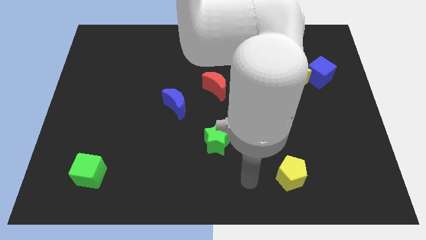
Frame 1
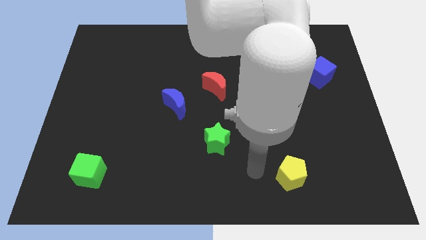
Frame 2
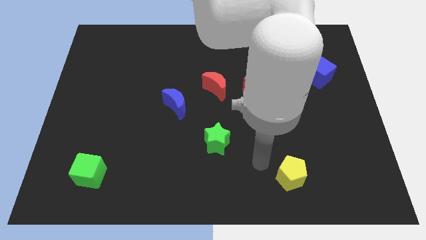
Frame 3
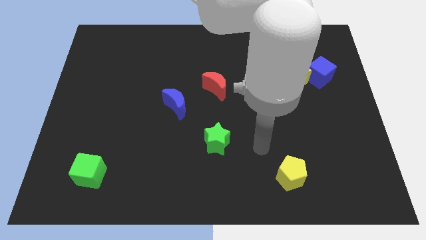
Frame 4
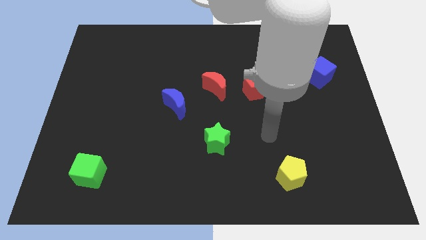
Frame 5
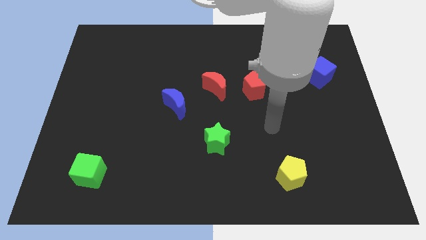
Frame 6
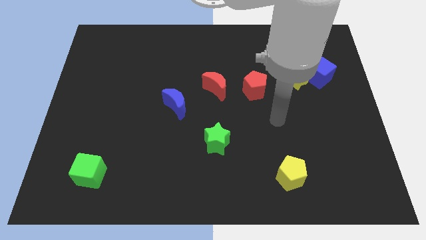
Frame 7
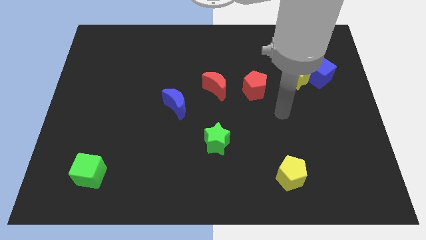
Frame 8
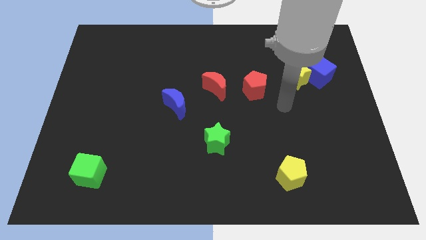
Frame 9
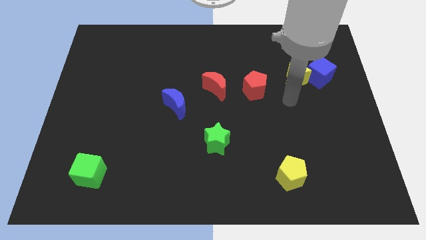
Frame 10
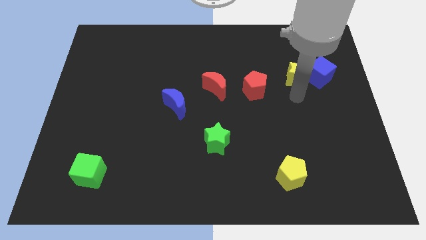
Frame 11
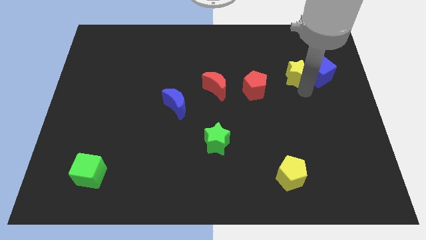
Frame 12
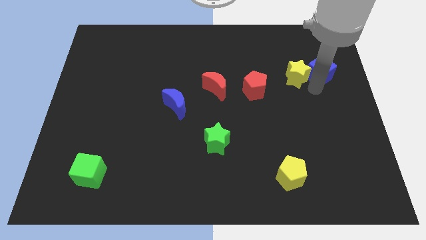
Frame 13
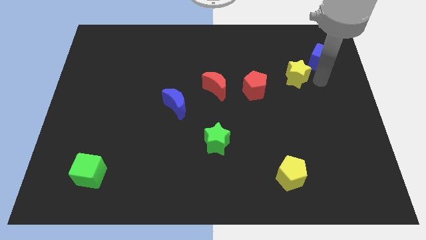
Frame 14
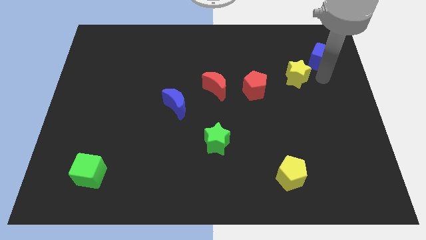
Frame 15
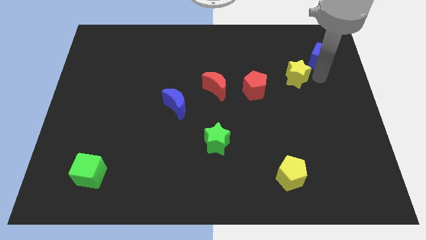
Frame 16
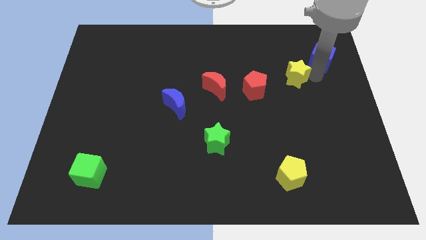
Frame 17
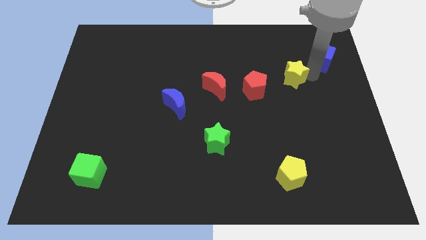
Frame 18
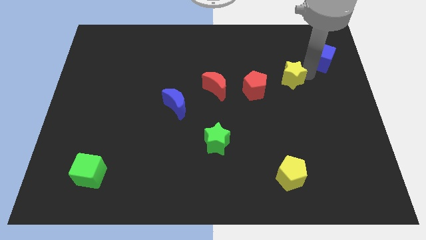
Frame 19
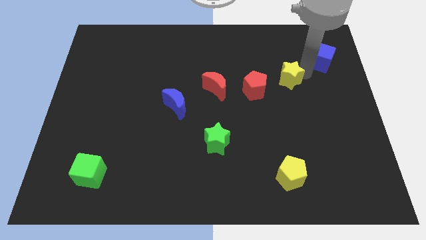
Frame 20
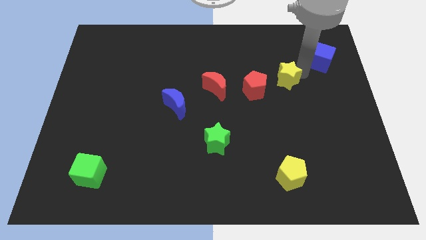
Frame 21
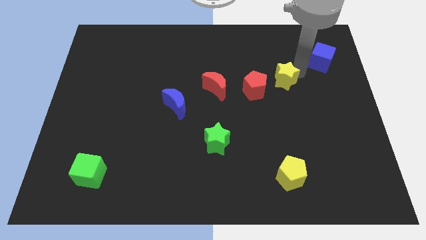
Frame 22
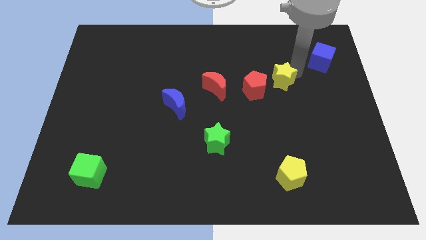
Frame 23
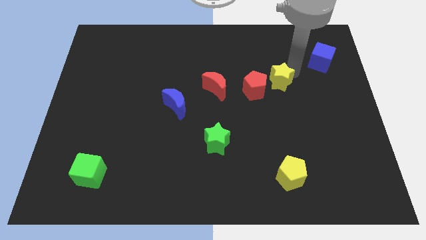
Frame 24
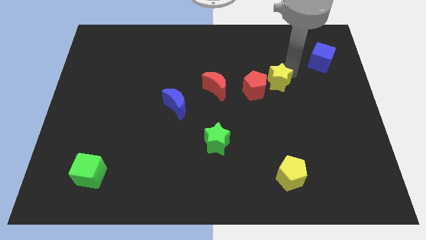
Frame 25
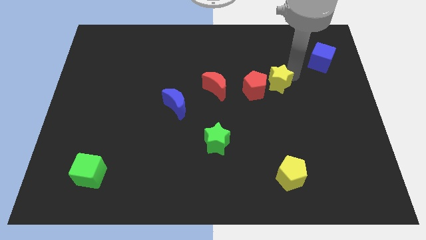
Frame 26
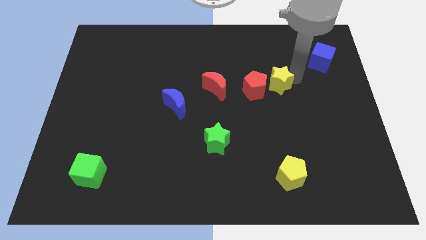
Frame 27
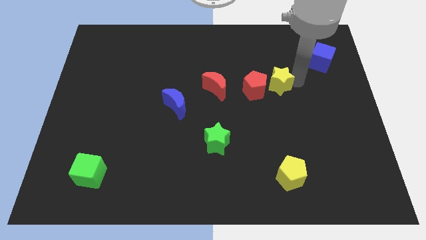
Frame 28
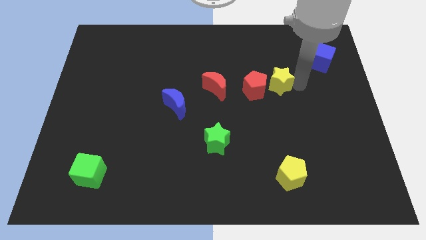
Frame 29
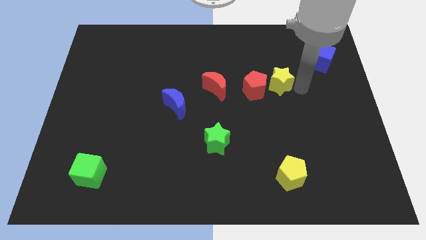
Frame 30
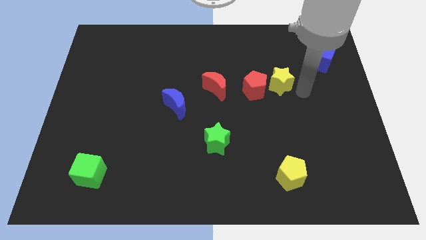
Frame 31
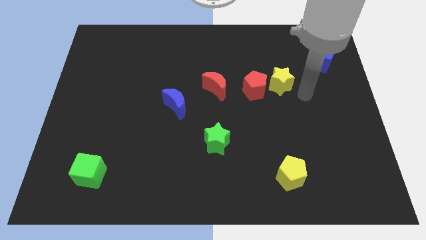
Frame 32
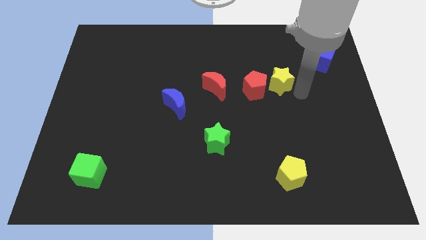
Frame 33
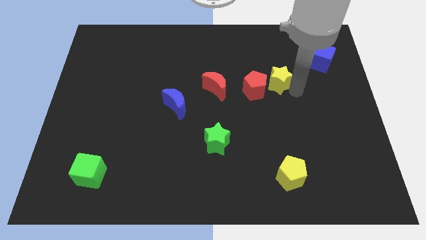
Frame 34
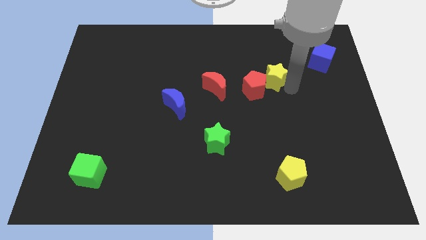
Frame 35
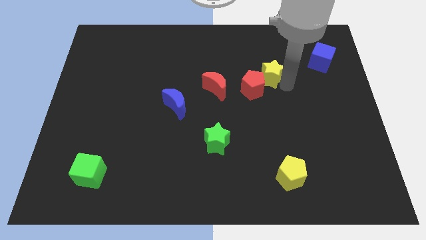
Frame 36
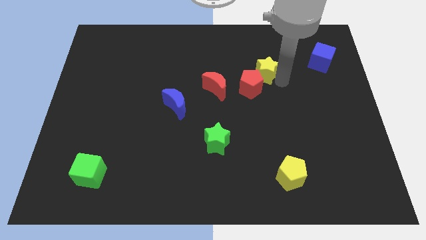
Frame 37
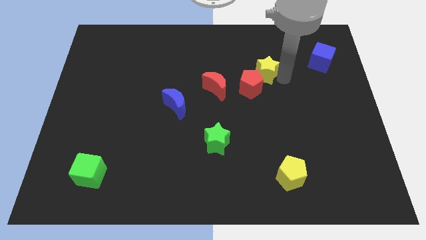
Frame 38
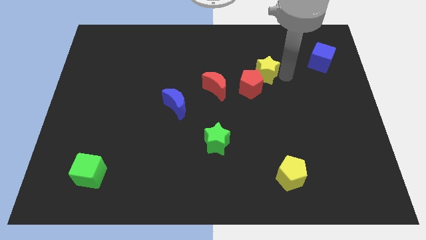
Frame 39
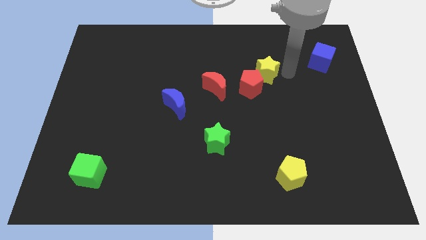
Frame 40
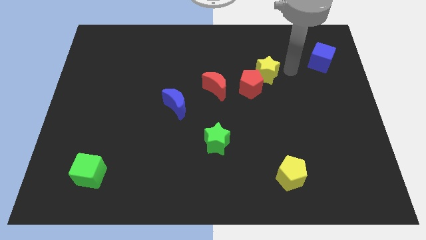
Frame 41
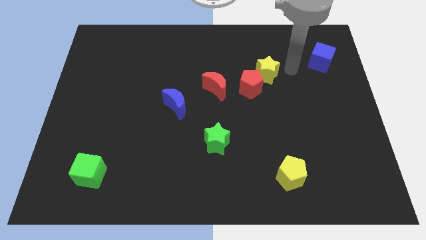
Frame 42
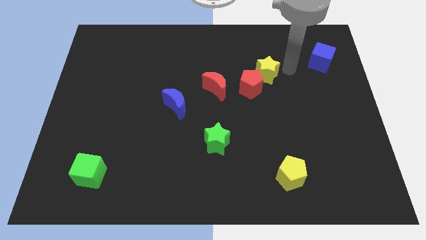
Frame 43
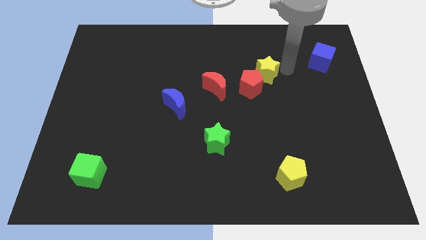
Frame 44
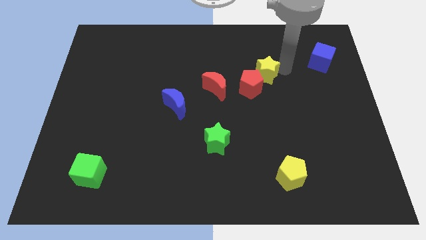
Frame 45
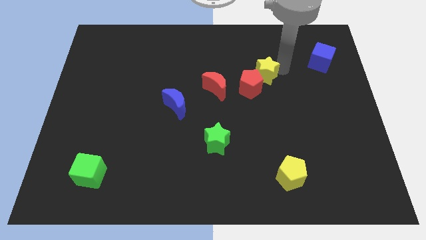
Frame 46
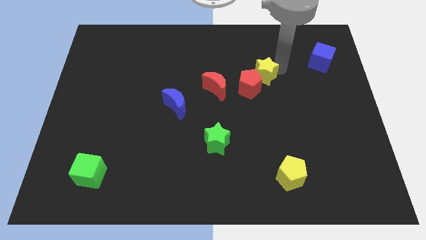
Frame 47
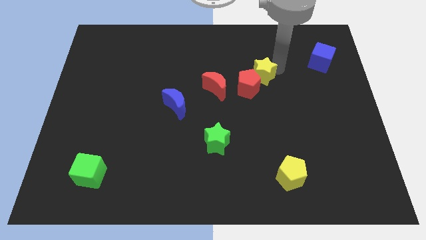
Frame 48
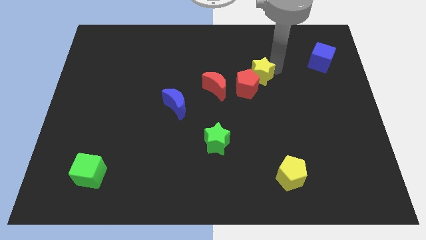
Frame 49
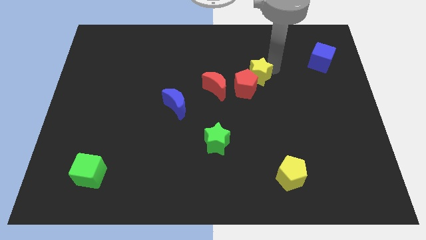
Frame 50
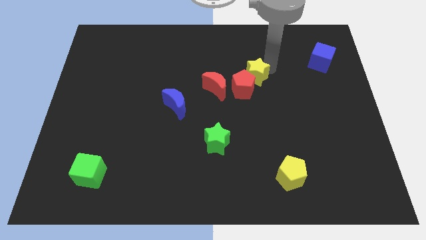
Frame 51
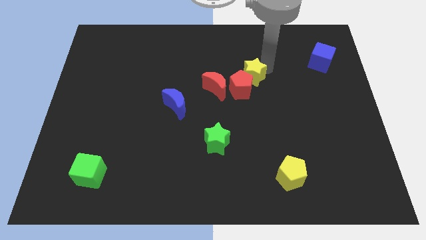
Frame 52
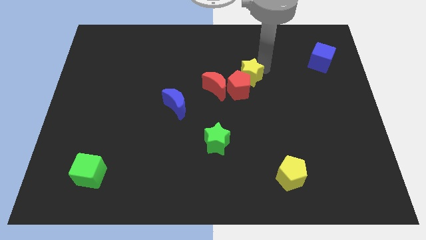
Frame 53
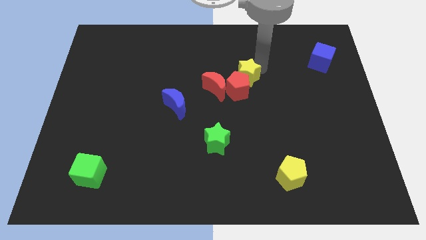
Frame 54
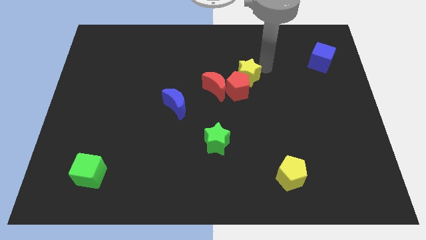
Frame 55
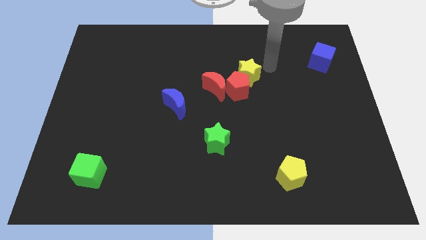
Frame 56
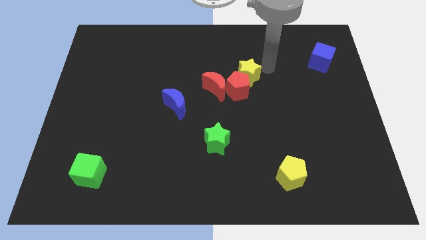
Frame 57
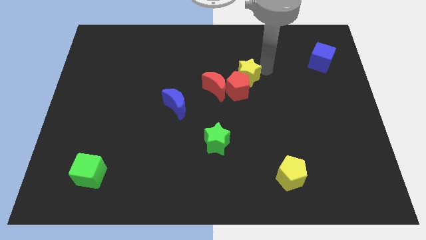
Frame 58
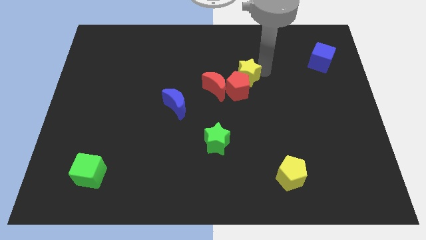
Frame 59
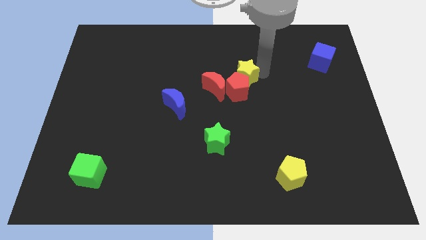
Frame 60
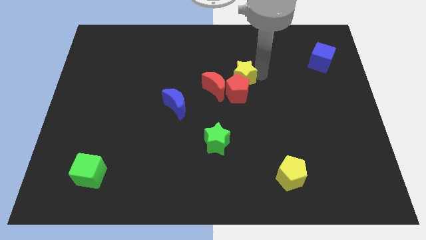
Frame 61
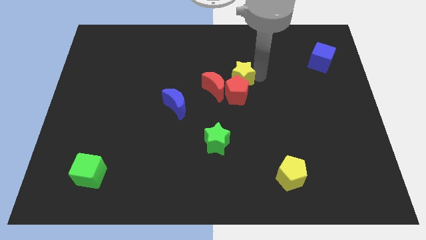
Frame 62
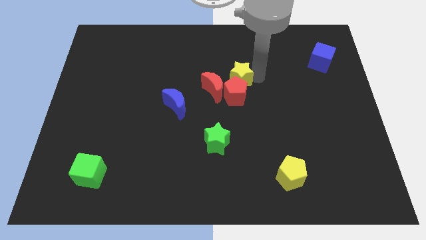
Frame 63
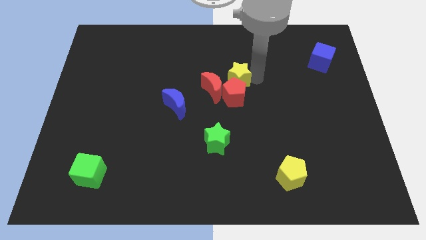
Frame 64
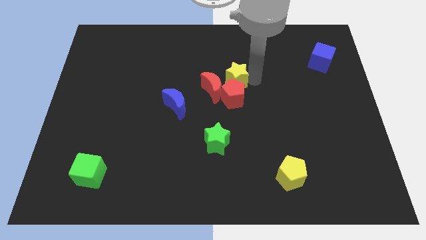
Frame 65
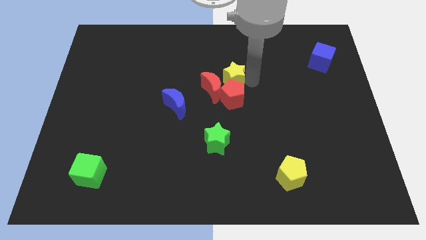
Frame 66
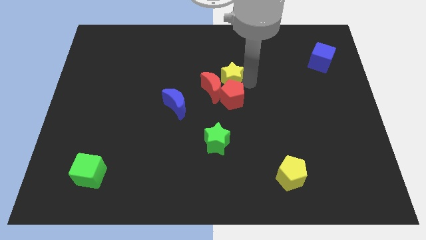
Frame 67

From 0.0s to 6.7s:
slide the yellow star close to the red moon
